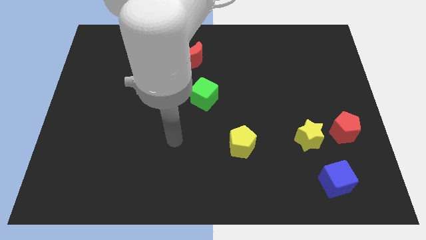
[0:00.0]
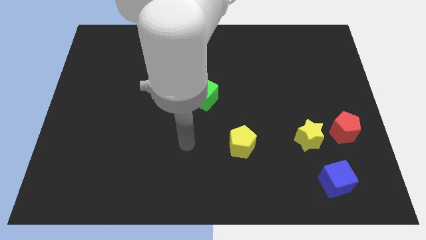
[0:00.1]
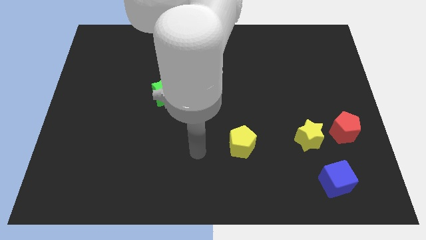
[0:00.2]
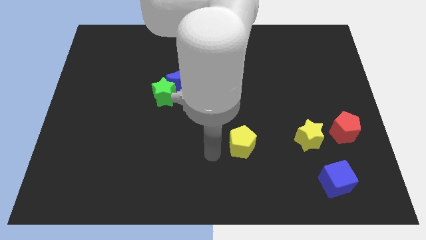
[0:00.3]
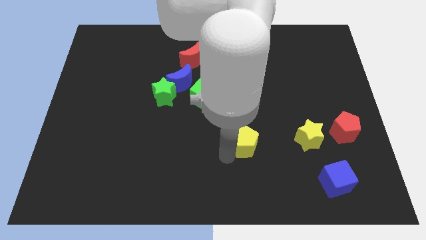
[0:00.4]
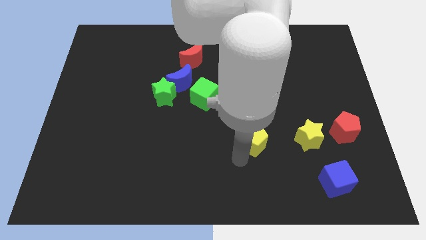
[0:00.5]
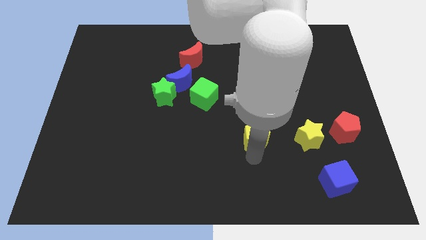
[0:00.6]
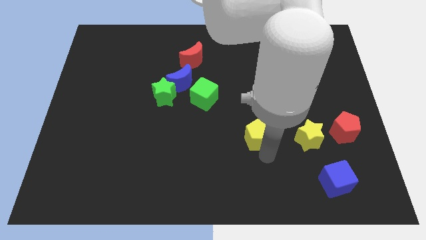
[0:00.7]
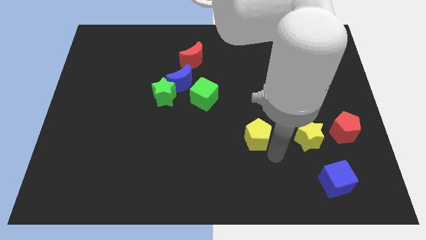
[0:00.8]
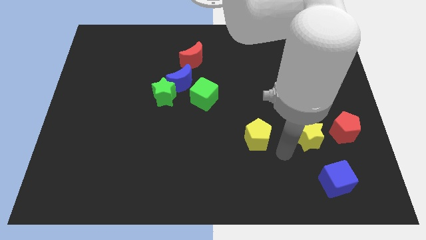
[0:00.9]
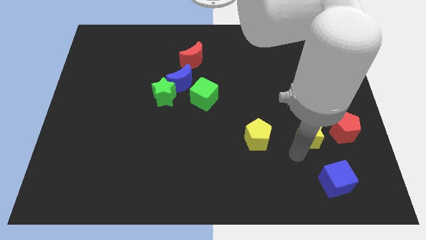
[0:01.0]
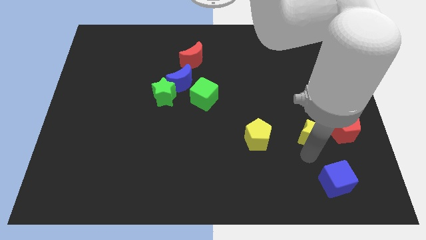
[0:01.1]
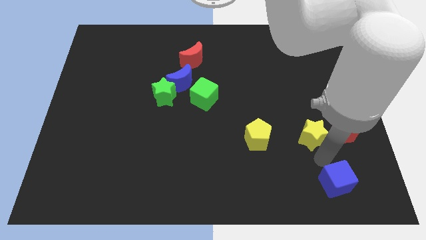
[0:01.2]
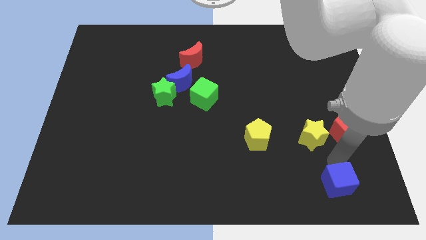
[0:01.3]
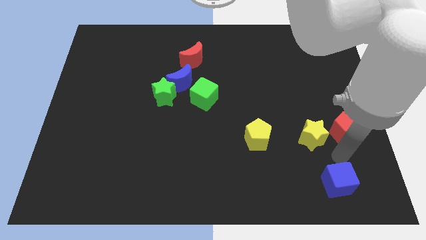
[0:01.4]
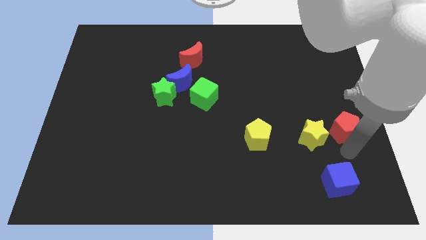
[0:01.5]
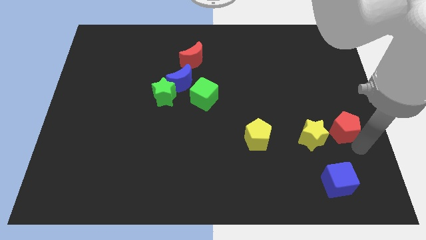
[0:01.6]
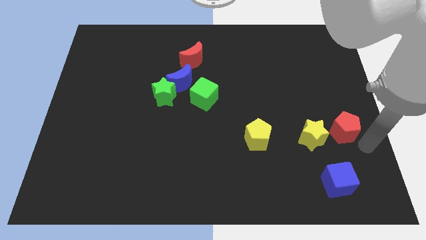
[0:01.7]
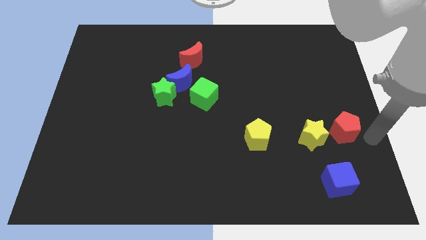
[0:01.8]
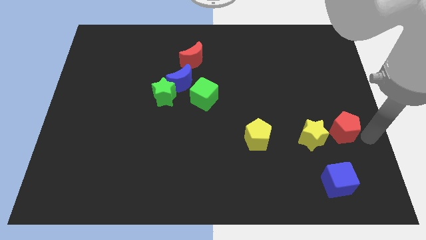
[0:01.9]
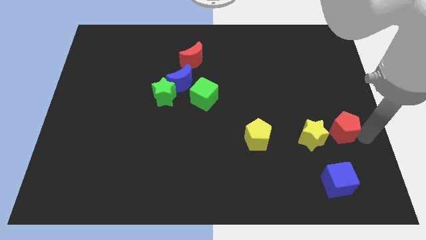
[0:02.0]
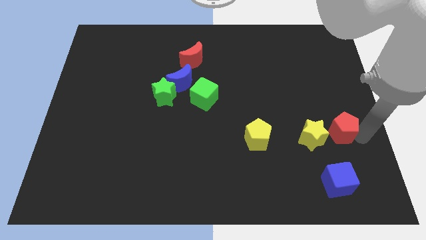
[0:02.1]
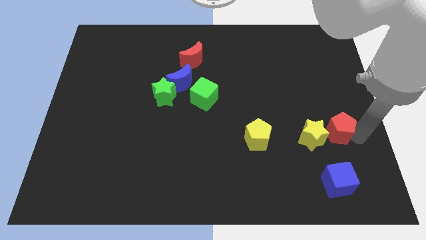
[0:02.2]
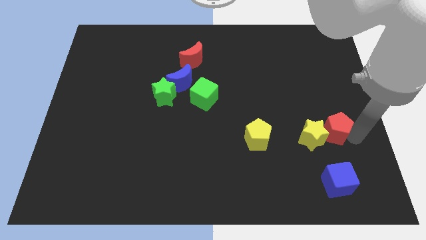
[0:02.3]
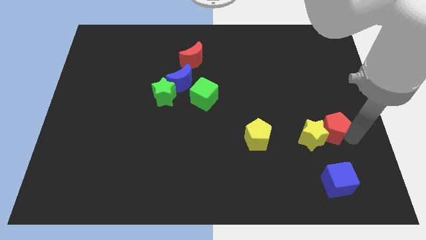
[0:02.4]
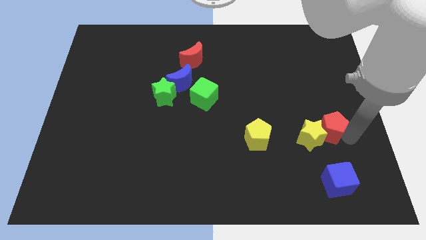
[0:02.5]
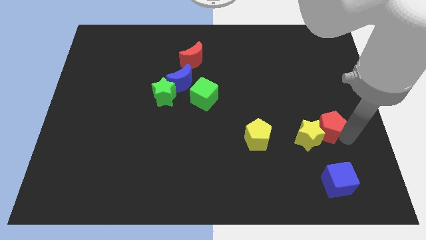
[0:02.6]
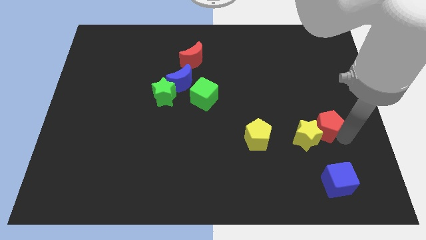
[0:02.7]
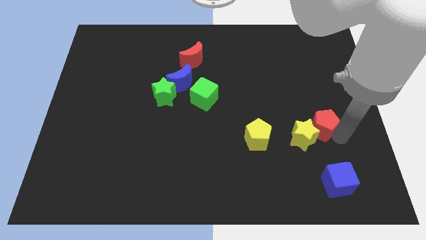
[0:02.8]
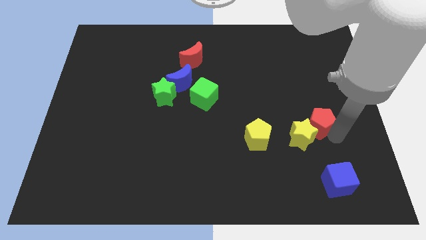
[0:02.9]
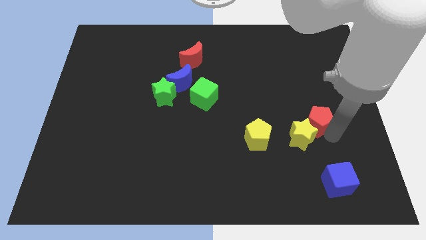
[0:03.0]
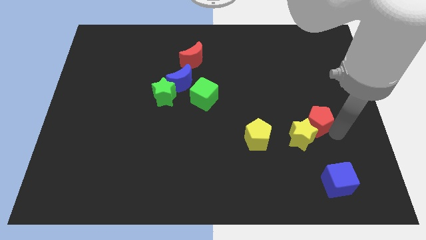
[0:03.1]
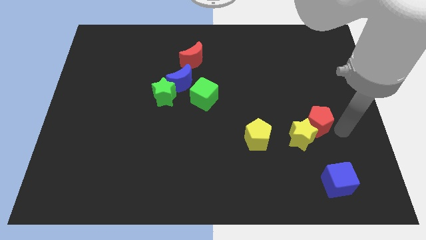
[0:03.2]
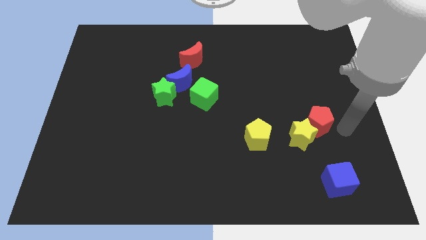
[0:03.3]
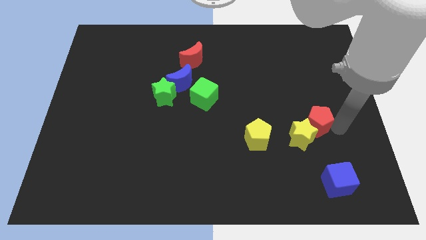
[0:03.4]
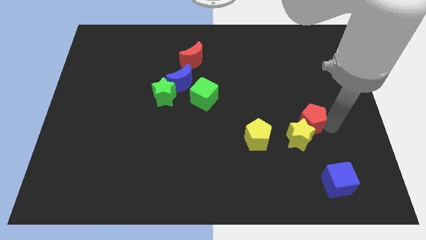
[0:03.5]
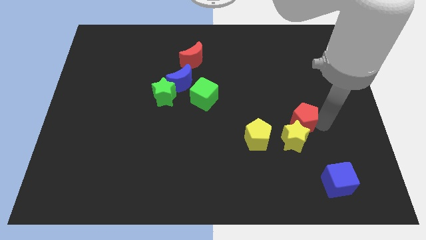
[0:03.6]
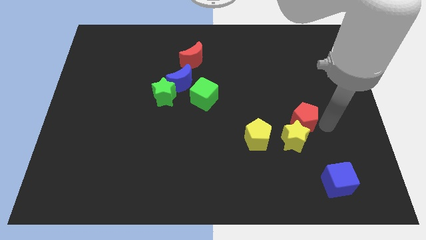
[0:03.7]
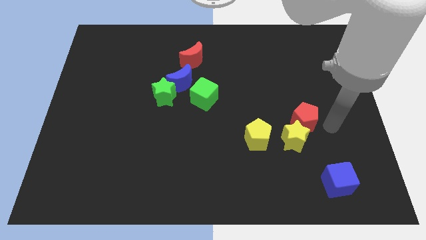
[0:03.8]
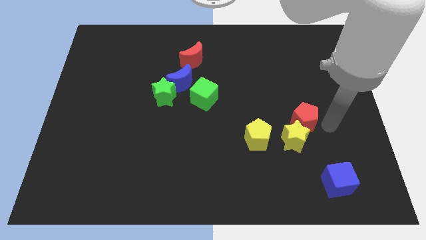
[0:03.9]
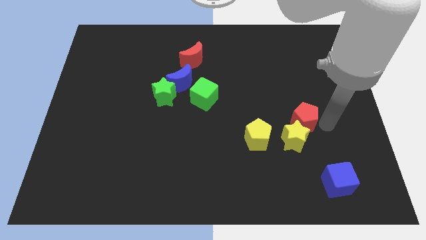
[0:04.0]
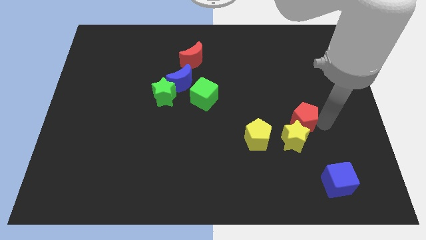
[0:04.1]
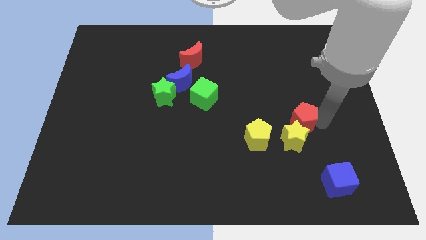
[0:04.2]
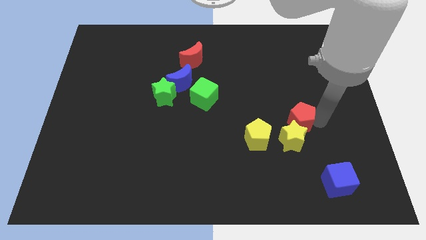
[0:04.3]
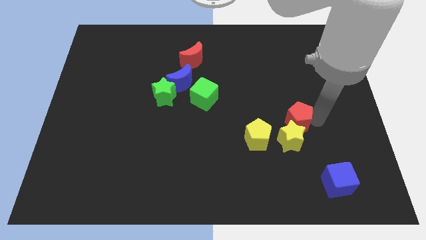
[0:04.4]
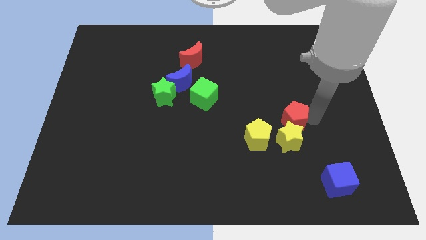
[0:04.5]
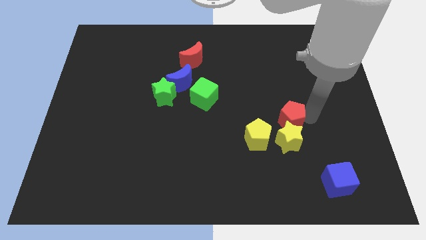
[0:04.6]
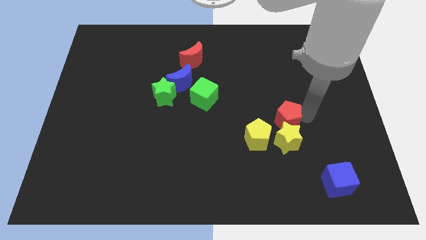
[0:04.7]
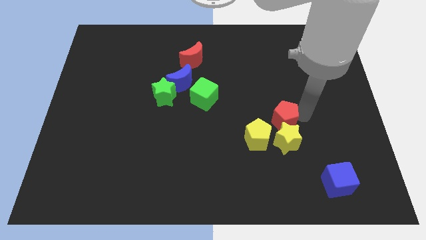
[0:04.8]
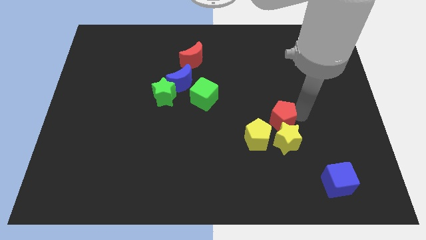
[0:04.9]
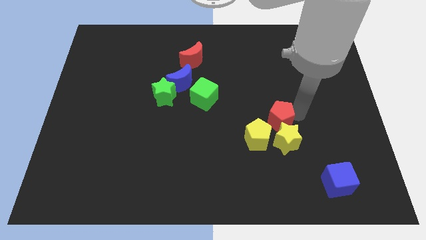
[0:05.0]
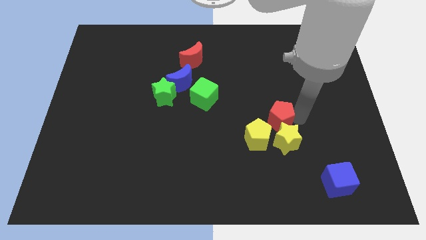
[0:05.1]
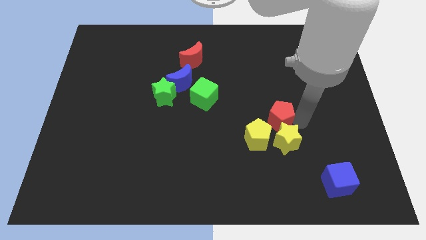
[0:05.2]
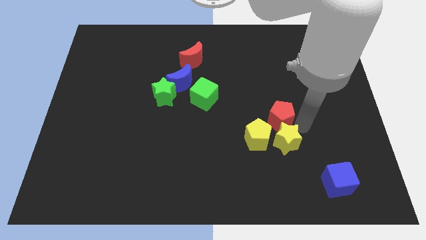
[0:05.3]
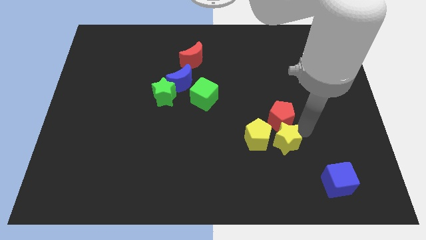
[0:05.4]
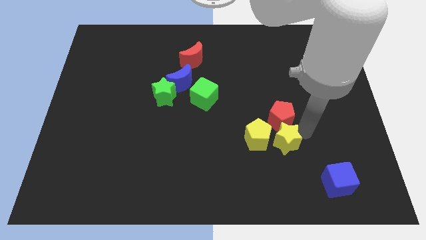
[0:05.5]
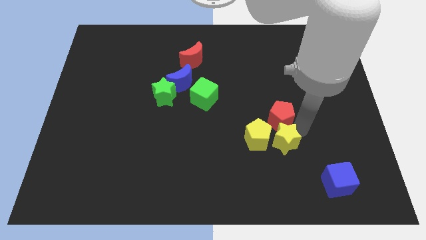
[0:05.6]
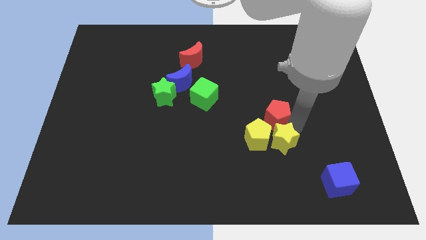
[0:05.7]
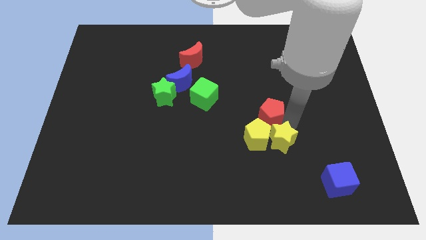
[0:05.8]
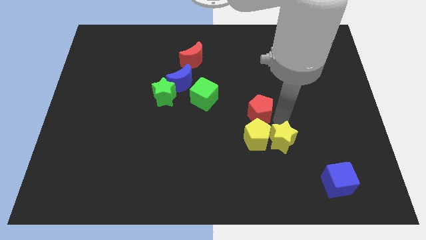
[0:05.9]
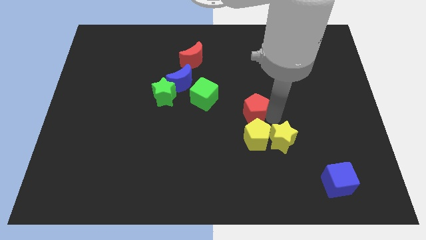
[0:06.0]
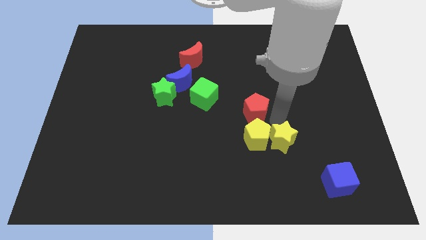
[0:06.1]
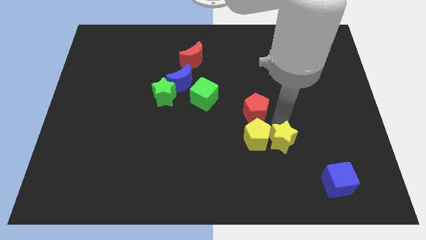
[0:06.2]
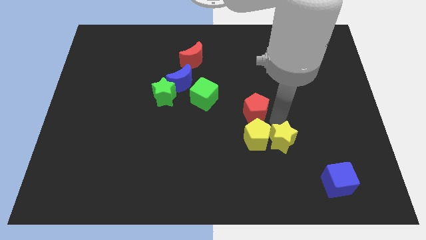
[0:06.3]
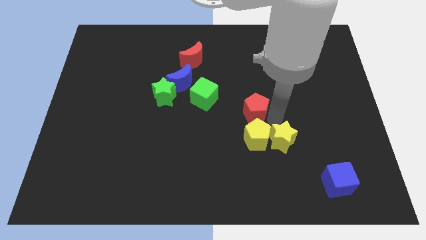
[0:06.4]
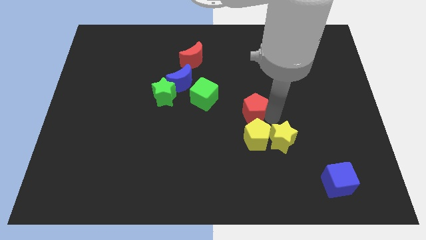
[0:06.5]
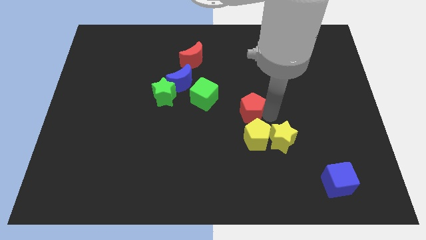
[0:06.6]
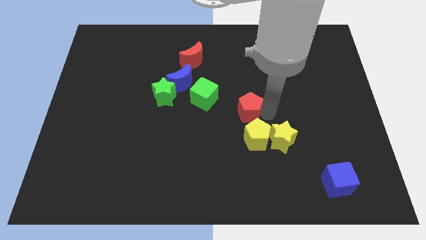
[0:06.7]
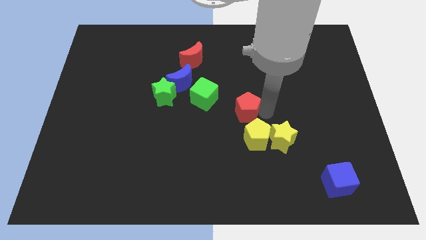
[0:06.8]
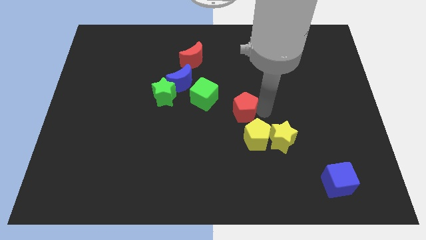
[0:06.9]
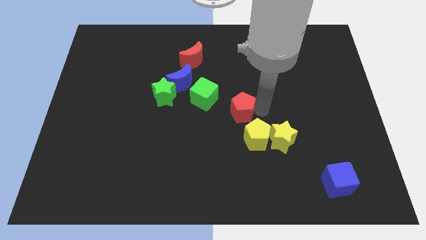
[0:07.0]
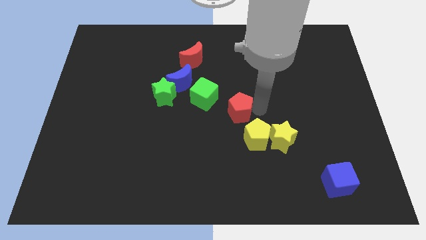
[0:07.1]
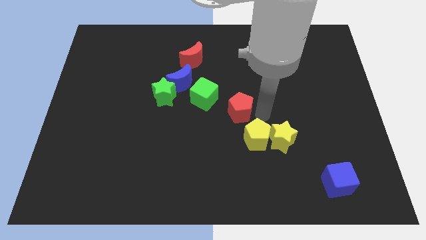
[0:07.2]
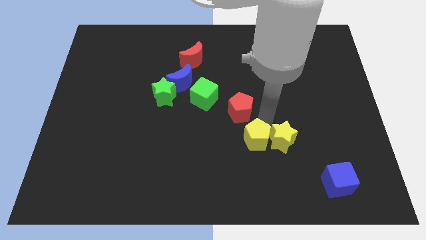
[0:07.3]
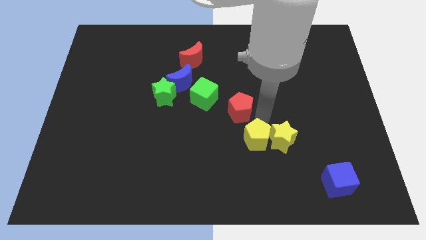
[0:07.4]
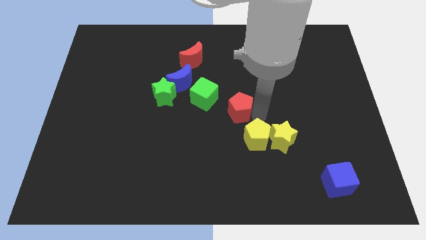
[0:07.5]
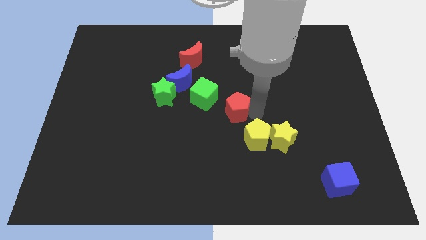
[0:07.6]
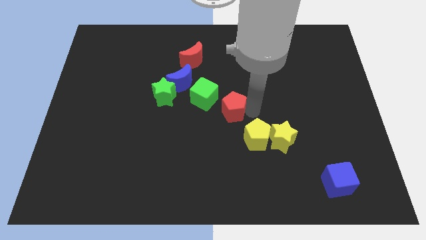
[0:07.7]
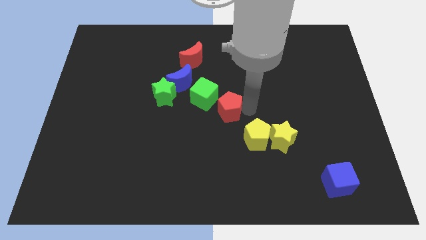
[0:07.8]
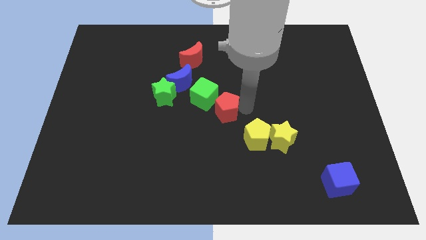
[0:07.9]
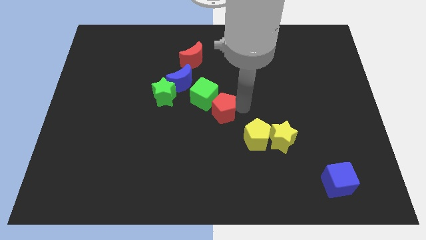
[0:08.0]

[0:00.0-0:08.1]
push the red pentagon next to the green cube
